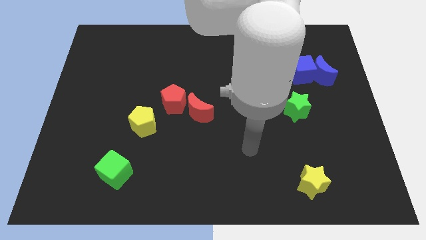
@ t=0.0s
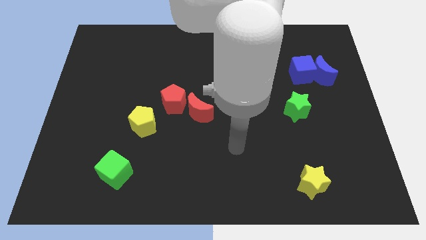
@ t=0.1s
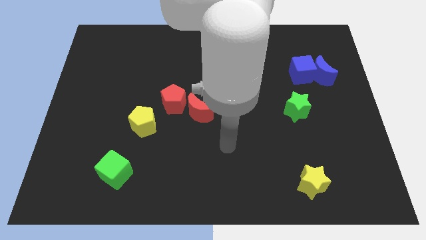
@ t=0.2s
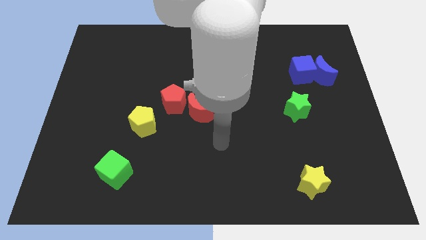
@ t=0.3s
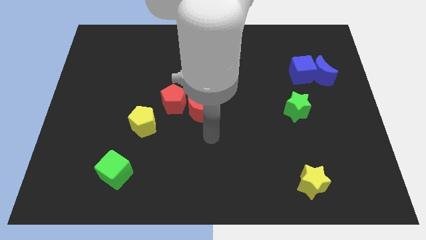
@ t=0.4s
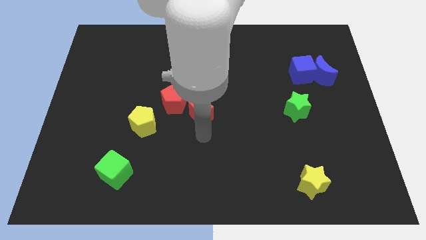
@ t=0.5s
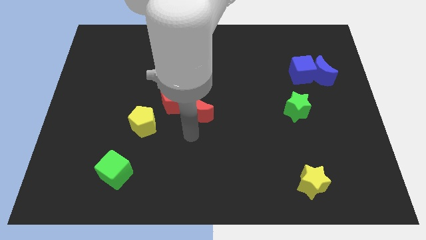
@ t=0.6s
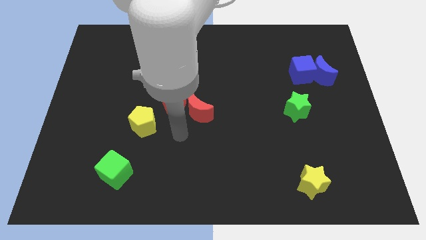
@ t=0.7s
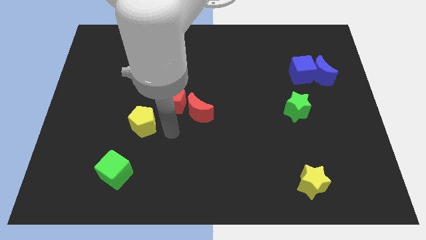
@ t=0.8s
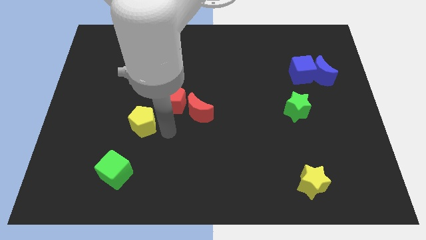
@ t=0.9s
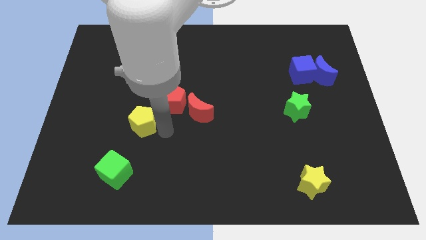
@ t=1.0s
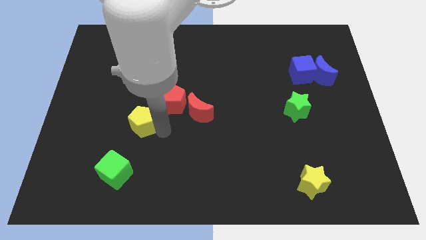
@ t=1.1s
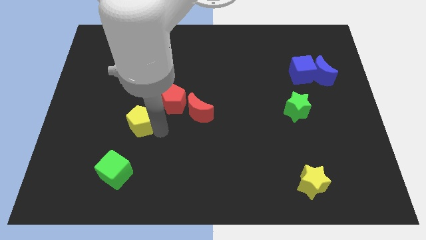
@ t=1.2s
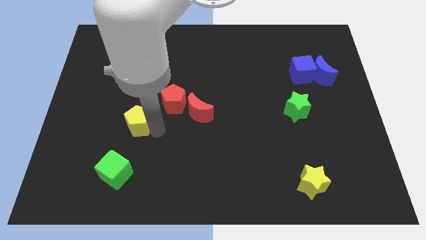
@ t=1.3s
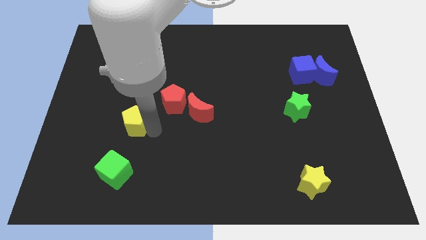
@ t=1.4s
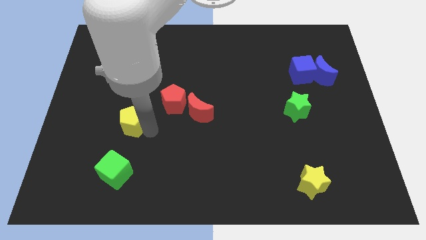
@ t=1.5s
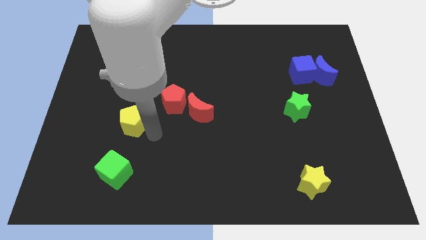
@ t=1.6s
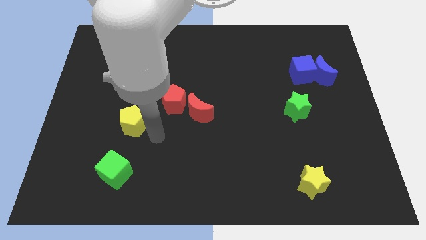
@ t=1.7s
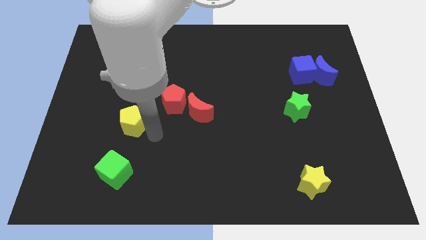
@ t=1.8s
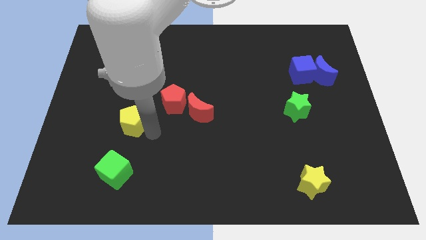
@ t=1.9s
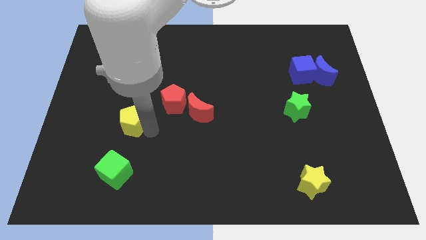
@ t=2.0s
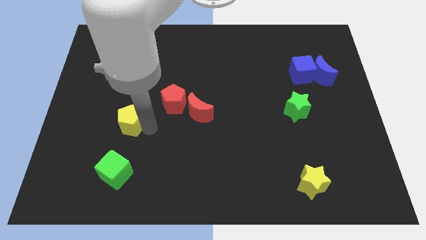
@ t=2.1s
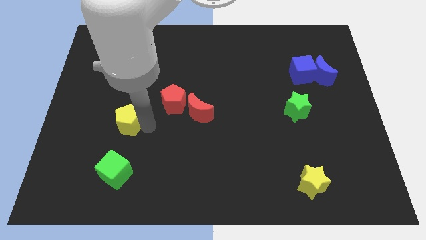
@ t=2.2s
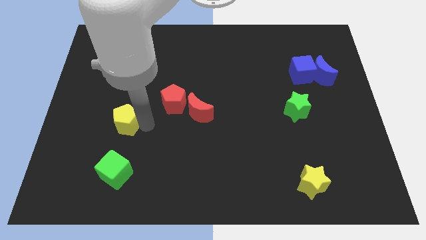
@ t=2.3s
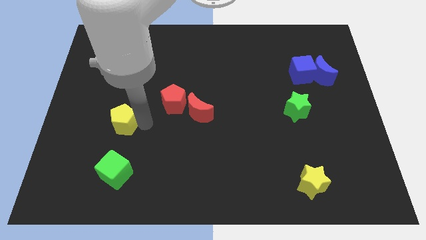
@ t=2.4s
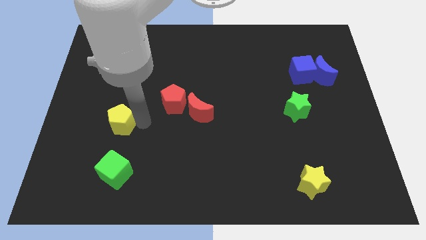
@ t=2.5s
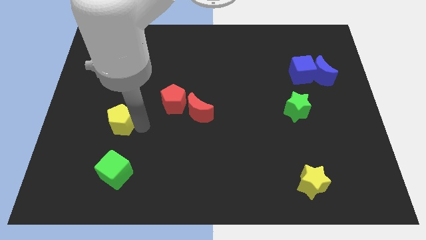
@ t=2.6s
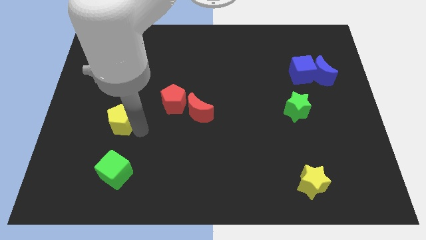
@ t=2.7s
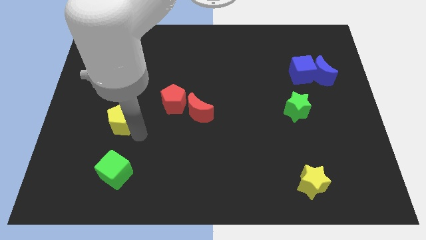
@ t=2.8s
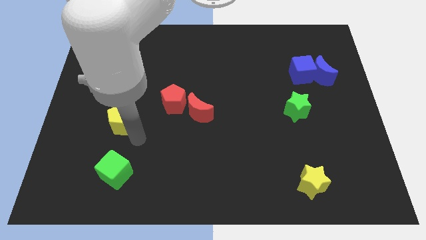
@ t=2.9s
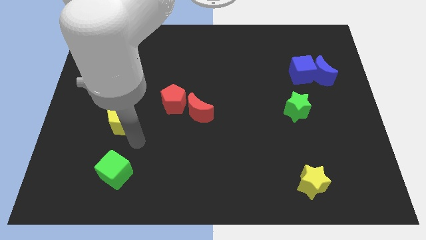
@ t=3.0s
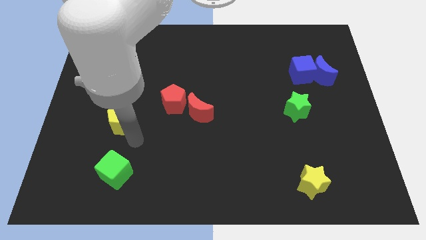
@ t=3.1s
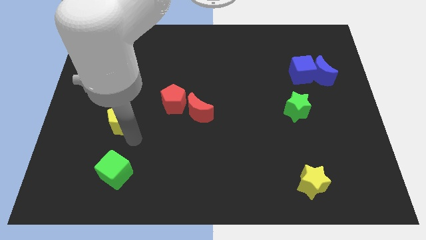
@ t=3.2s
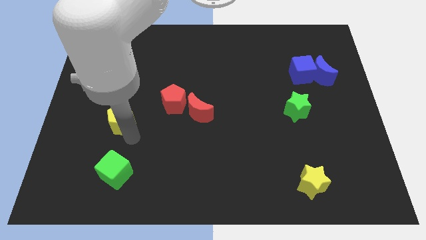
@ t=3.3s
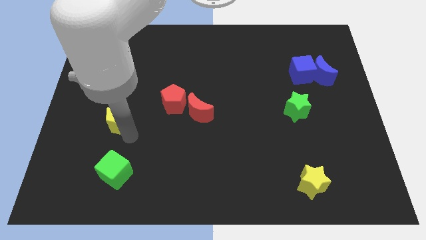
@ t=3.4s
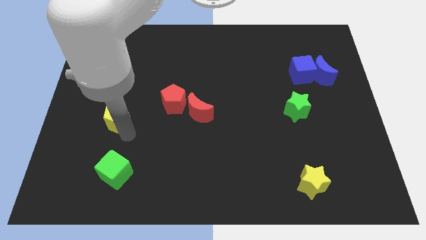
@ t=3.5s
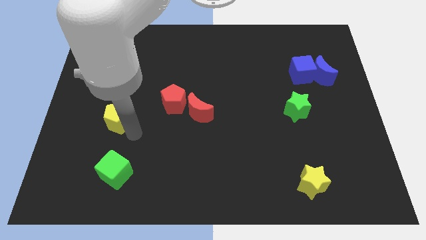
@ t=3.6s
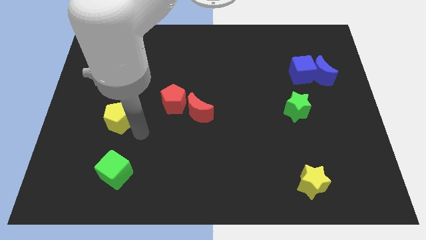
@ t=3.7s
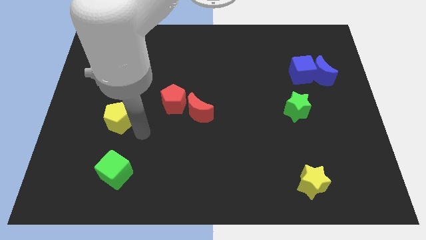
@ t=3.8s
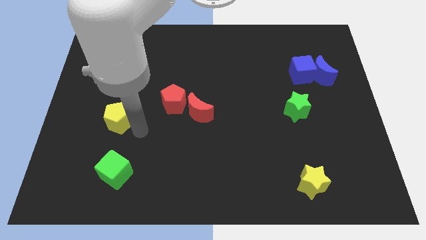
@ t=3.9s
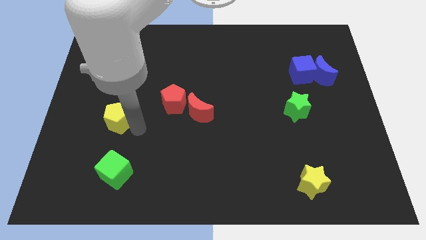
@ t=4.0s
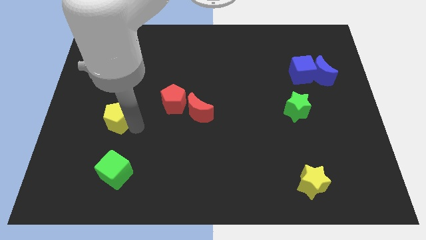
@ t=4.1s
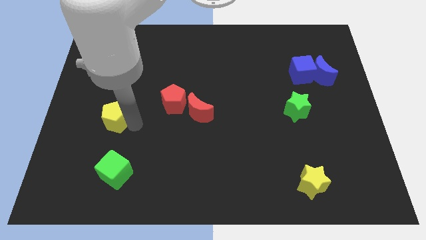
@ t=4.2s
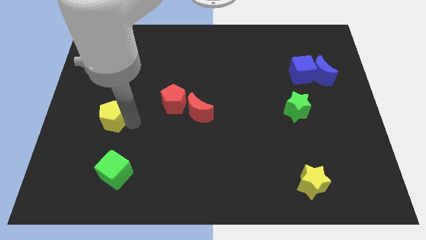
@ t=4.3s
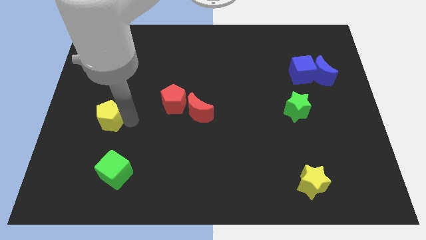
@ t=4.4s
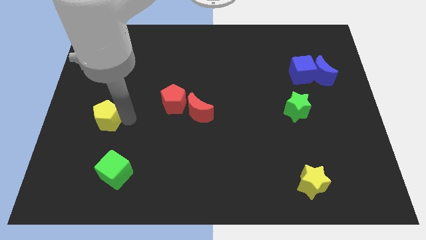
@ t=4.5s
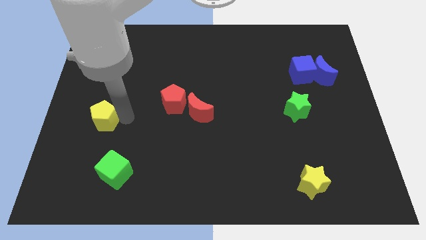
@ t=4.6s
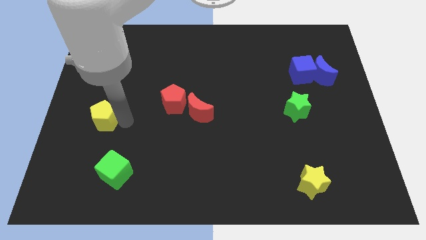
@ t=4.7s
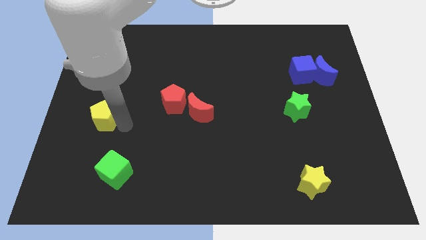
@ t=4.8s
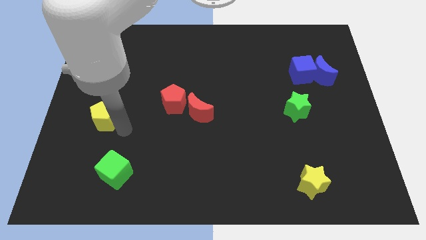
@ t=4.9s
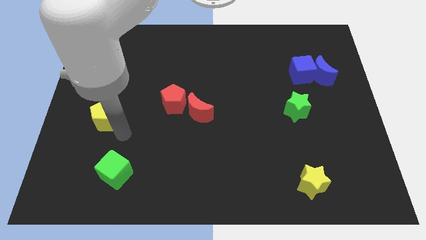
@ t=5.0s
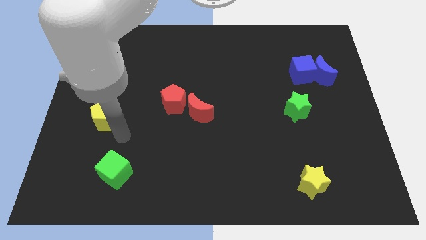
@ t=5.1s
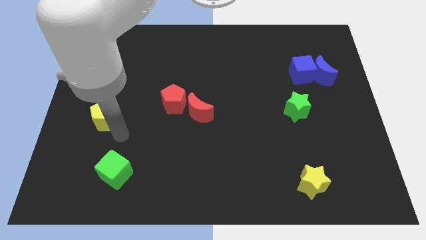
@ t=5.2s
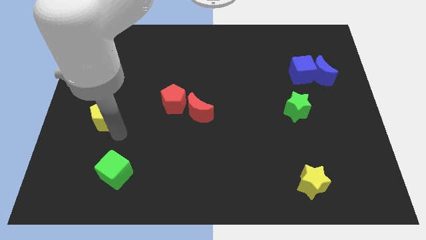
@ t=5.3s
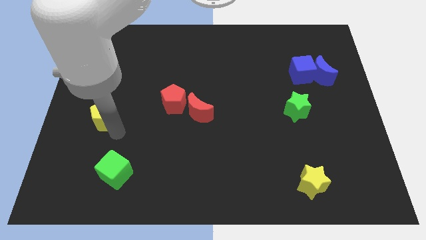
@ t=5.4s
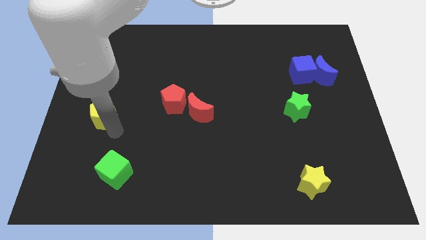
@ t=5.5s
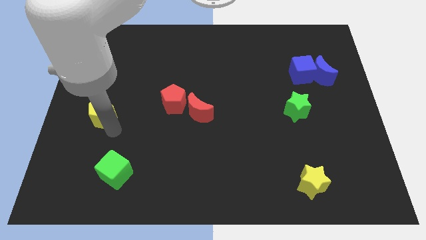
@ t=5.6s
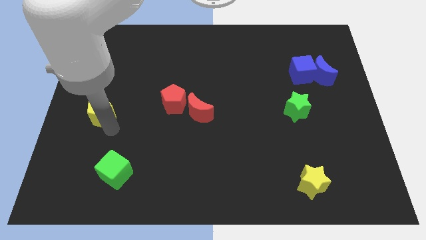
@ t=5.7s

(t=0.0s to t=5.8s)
push the yellow pentagon to the center left
